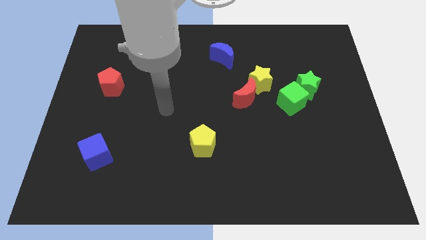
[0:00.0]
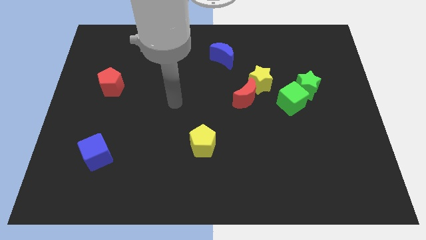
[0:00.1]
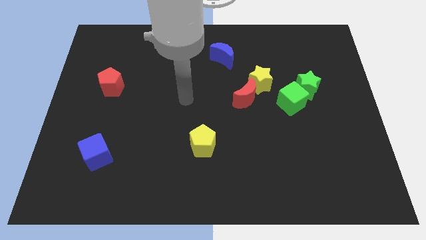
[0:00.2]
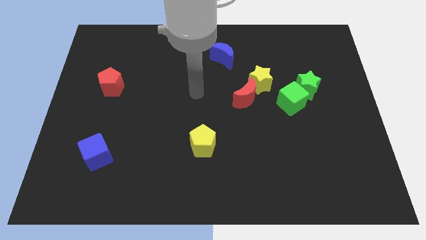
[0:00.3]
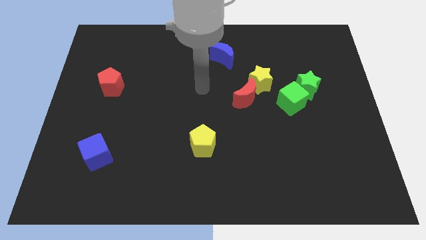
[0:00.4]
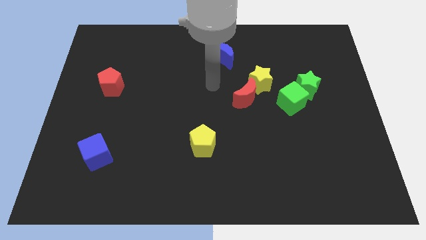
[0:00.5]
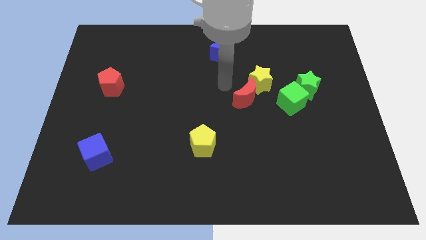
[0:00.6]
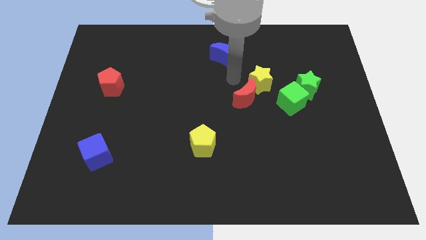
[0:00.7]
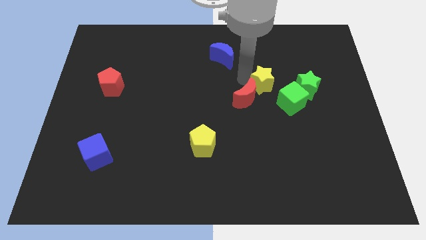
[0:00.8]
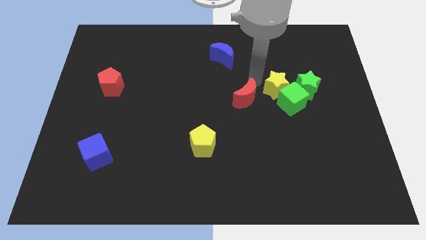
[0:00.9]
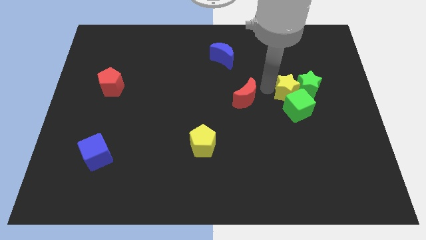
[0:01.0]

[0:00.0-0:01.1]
pull the red moon apart from the yellow star

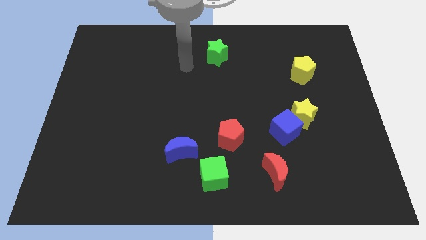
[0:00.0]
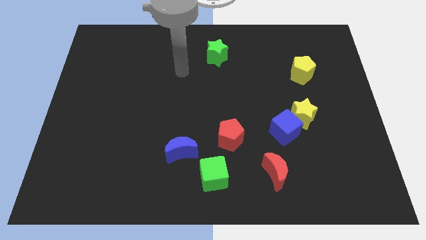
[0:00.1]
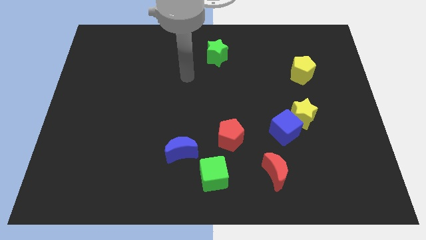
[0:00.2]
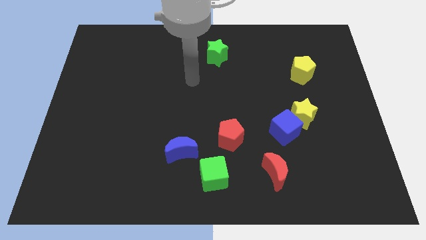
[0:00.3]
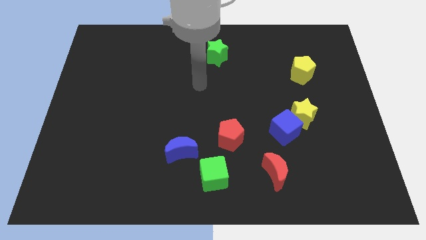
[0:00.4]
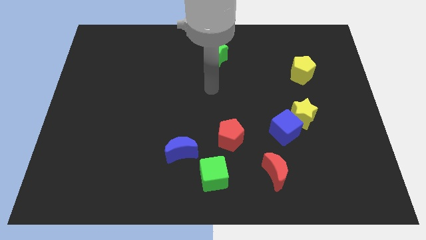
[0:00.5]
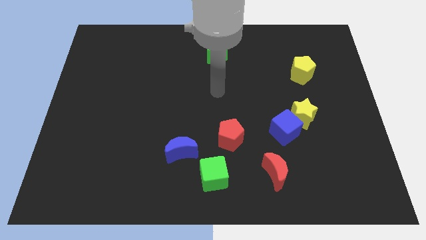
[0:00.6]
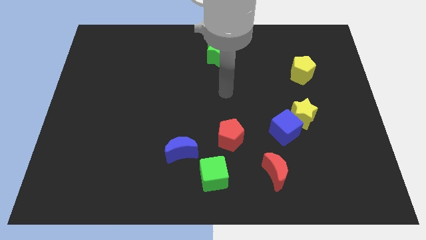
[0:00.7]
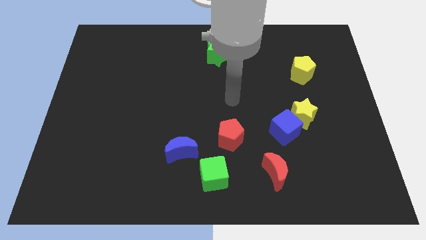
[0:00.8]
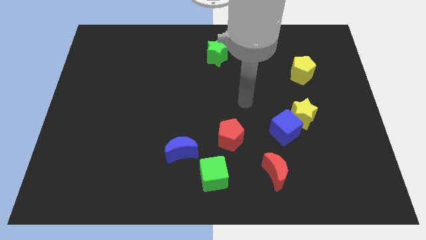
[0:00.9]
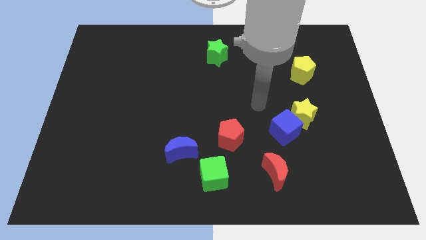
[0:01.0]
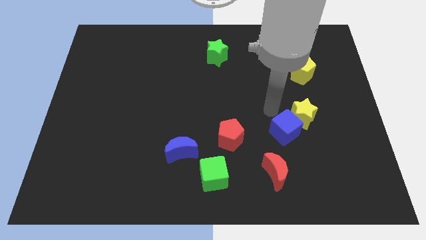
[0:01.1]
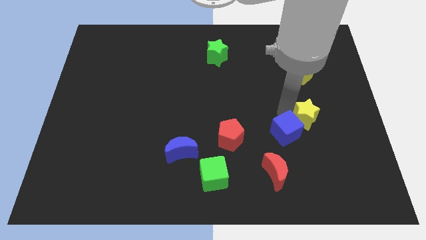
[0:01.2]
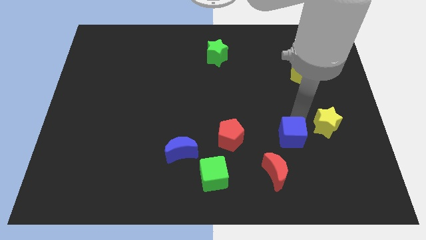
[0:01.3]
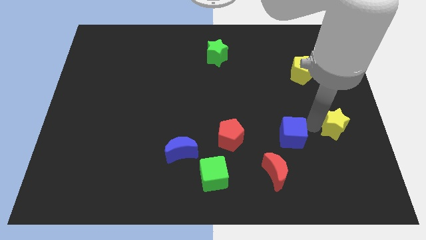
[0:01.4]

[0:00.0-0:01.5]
pull the blue cube apart from the yellow star

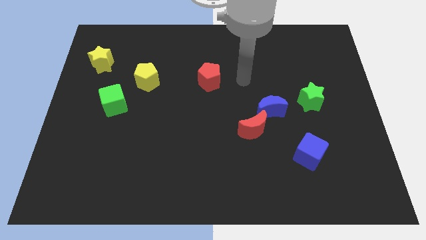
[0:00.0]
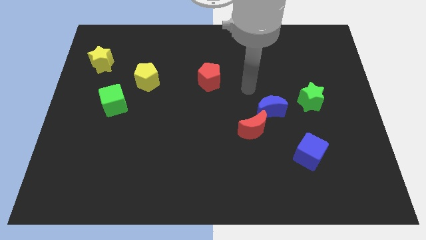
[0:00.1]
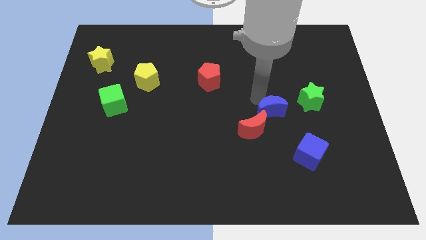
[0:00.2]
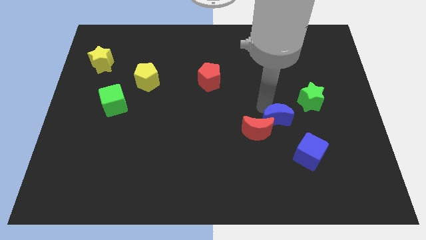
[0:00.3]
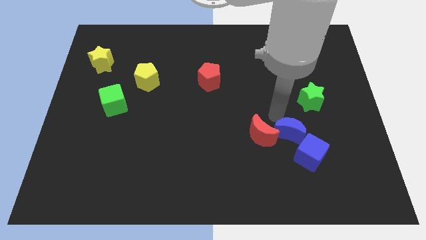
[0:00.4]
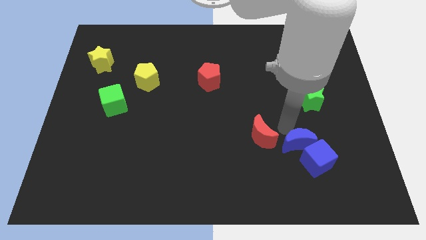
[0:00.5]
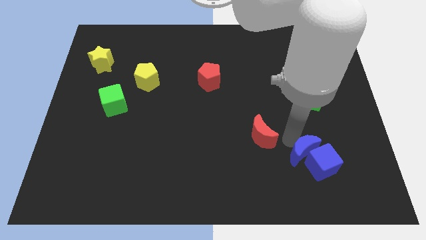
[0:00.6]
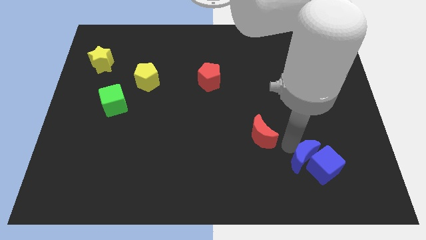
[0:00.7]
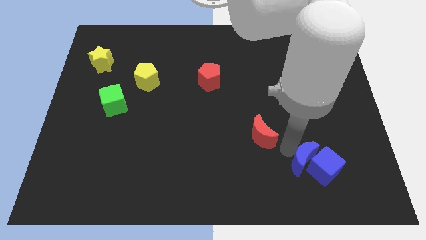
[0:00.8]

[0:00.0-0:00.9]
separate the red moon from the blue moon

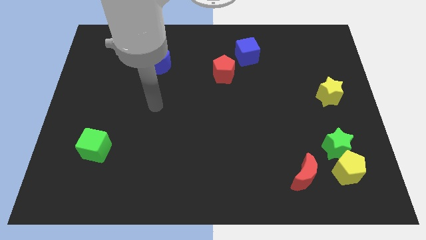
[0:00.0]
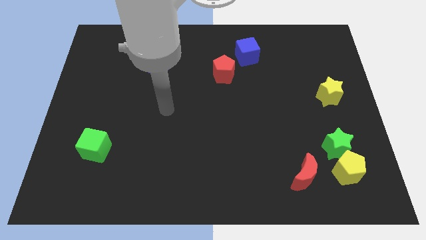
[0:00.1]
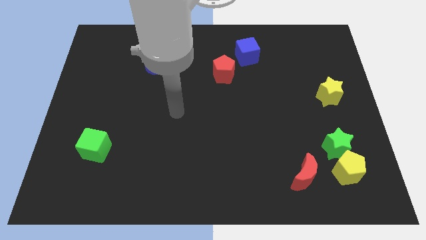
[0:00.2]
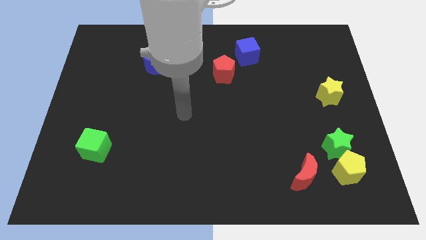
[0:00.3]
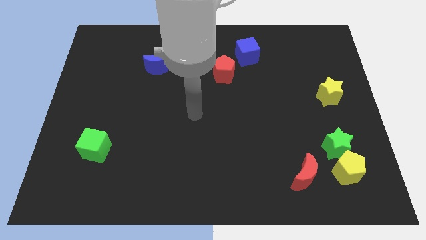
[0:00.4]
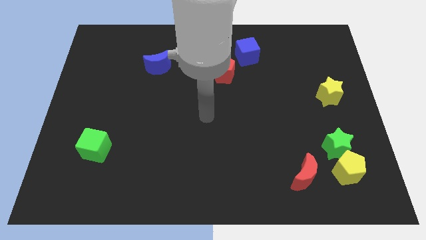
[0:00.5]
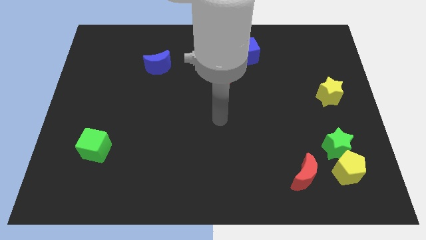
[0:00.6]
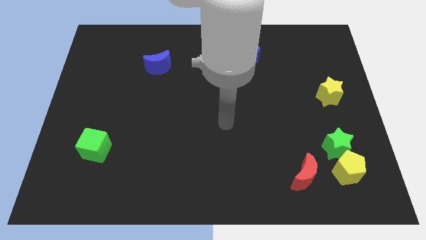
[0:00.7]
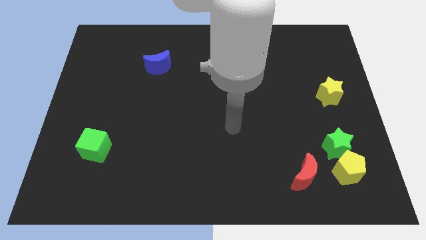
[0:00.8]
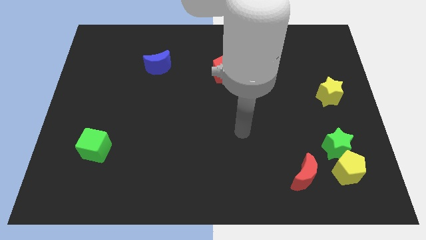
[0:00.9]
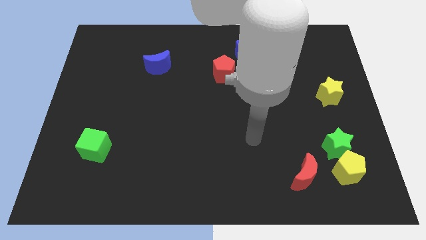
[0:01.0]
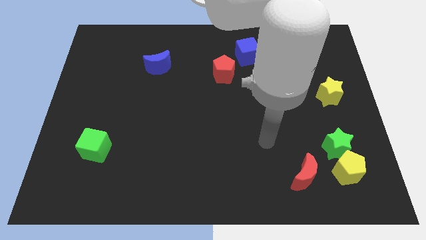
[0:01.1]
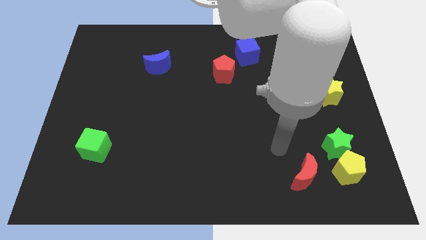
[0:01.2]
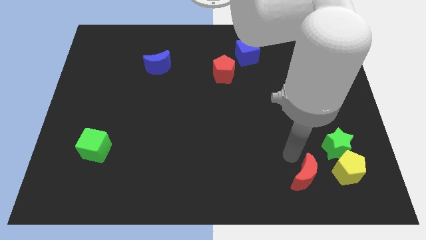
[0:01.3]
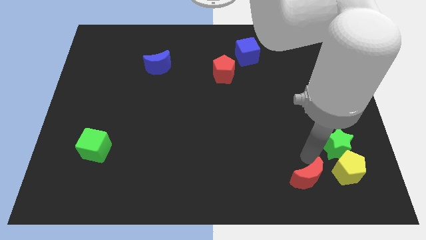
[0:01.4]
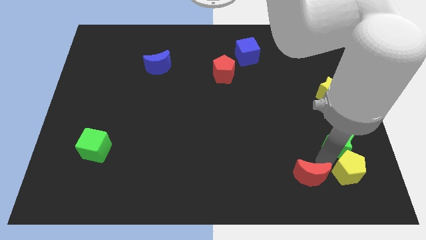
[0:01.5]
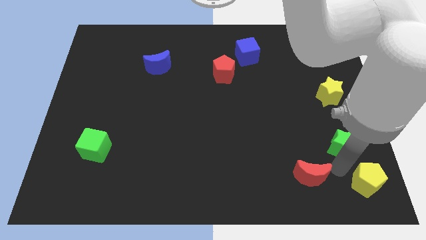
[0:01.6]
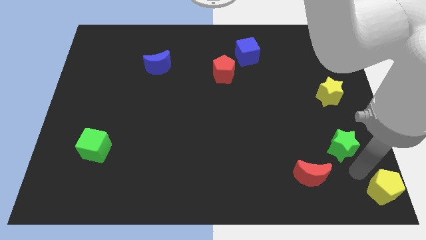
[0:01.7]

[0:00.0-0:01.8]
separate the green star from the yellow pentagon

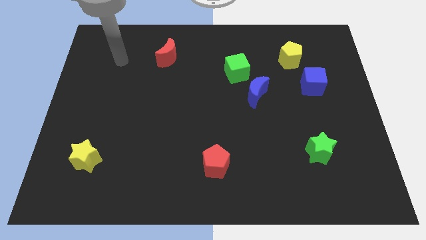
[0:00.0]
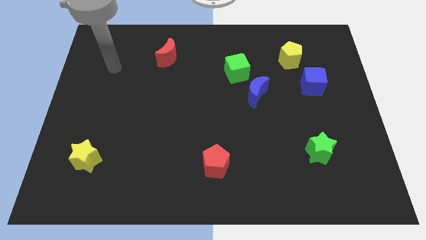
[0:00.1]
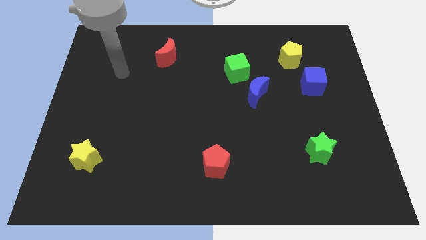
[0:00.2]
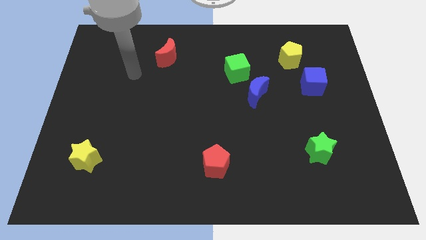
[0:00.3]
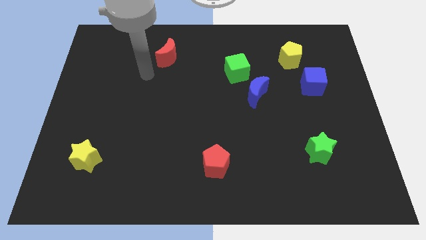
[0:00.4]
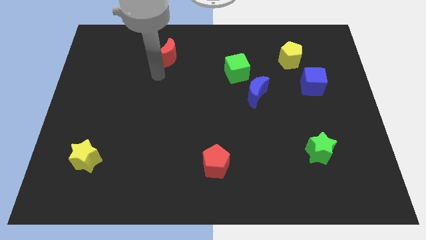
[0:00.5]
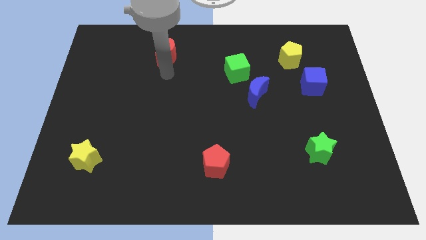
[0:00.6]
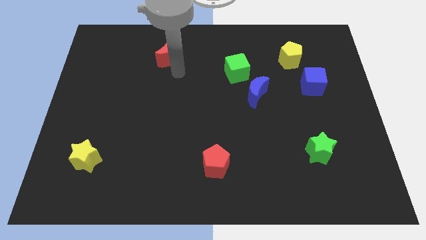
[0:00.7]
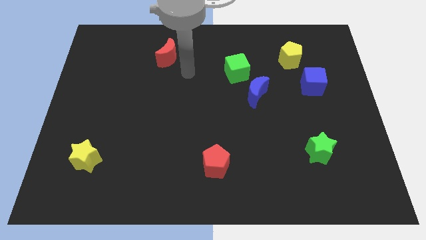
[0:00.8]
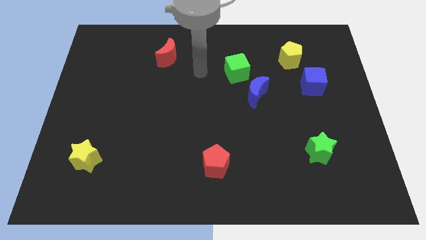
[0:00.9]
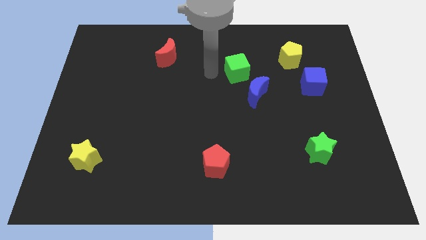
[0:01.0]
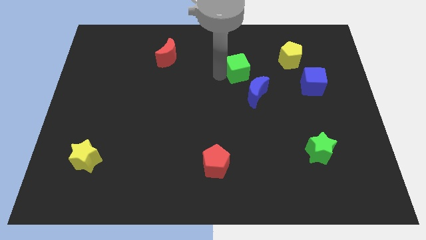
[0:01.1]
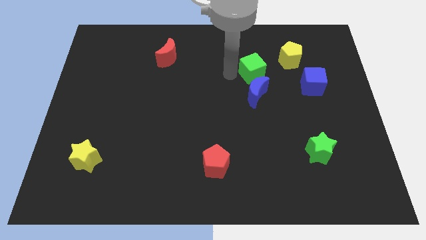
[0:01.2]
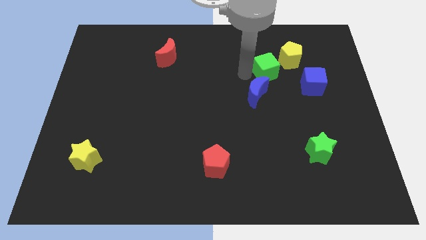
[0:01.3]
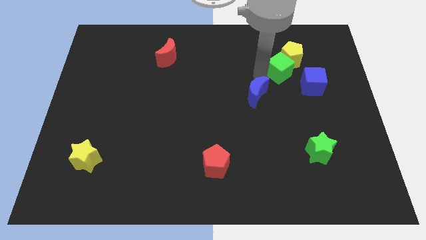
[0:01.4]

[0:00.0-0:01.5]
separate the blue moon from the green cube

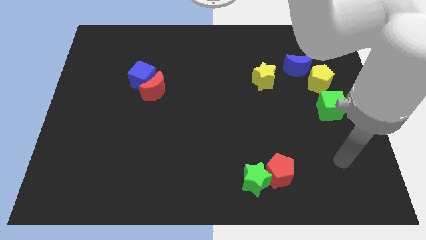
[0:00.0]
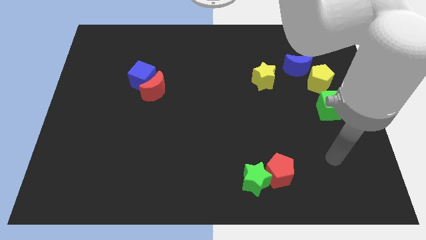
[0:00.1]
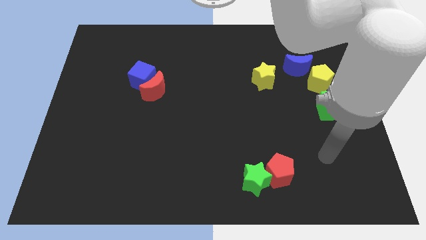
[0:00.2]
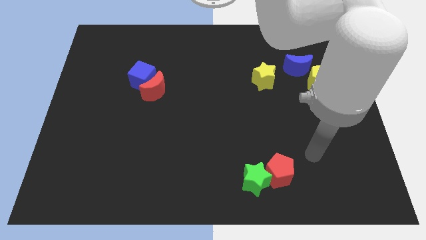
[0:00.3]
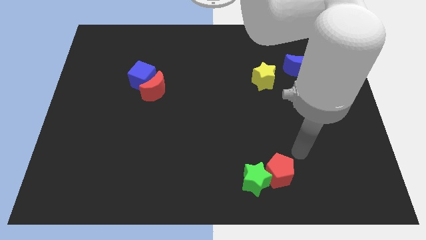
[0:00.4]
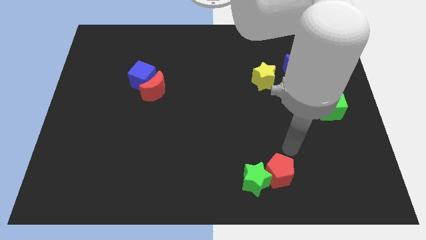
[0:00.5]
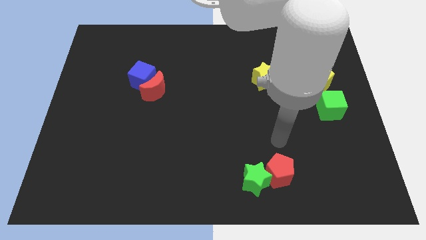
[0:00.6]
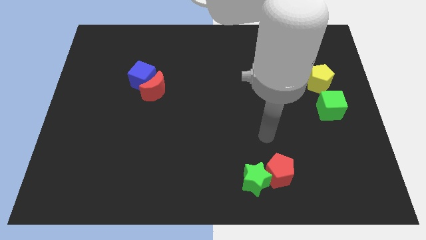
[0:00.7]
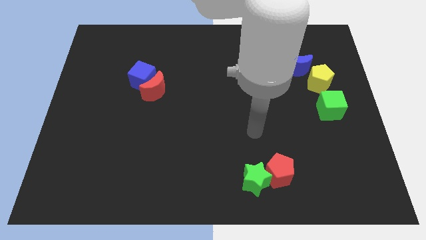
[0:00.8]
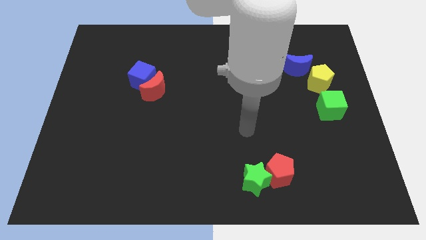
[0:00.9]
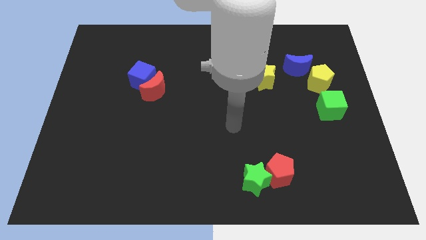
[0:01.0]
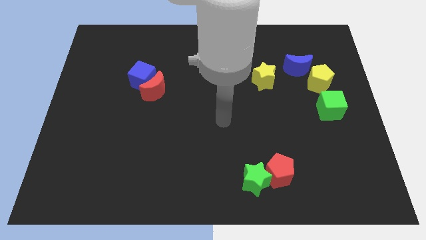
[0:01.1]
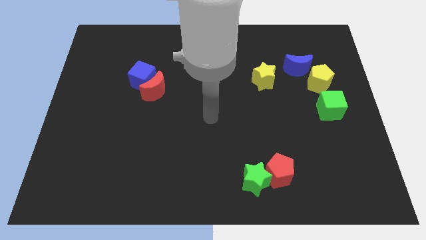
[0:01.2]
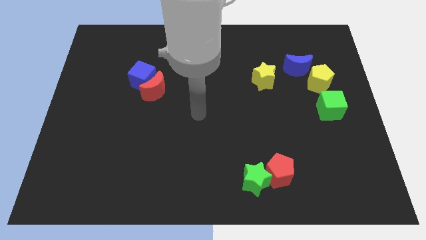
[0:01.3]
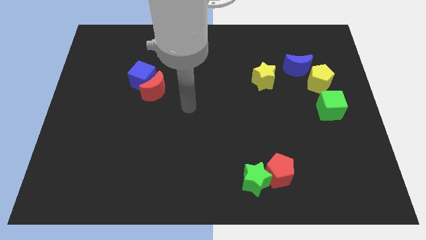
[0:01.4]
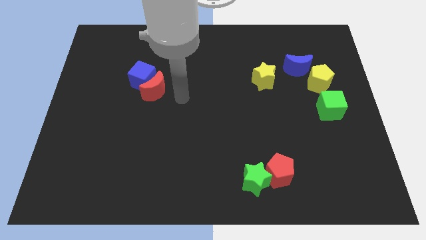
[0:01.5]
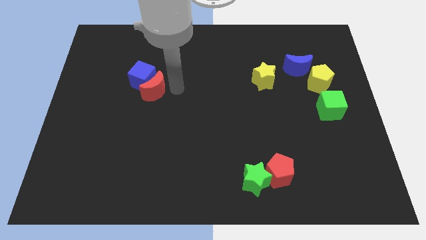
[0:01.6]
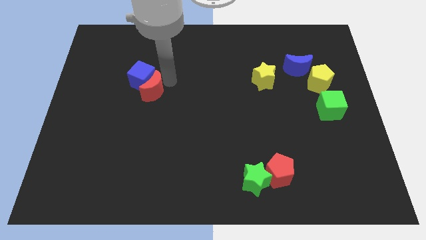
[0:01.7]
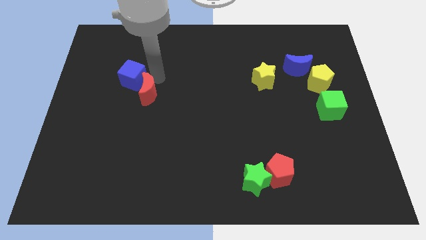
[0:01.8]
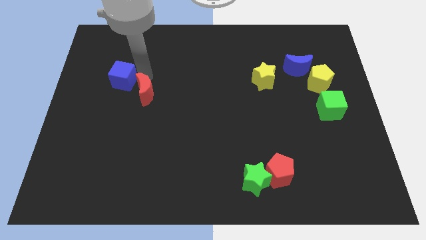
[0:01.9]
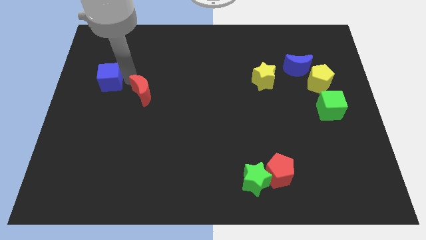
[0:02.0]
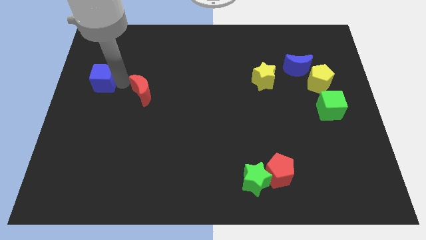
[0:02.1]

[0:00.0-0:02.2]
move the red moon away from the blue cube

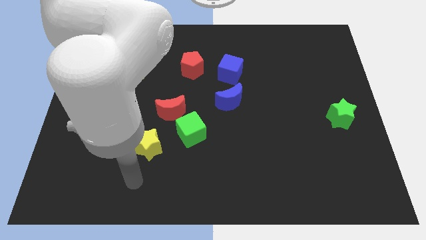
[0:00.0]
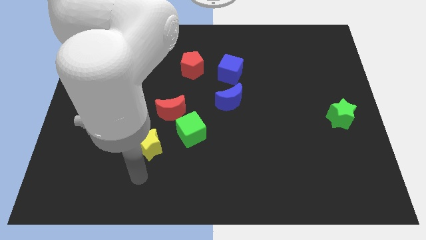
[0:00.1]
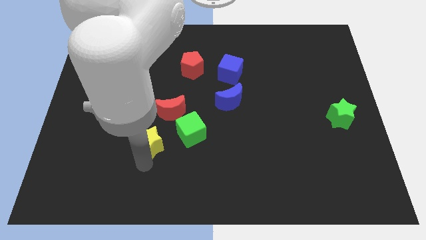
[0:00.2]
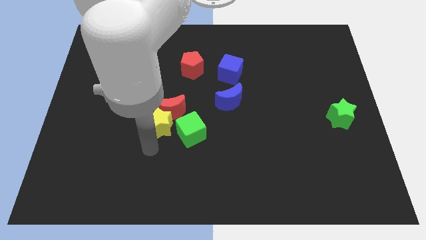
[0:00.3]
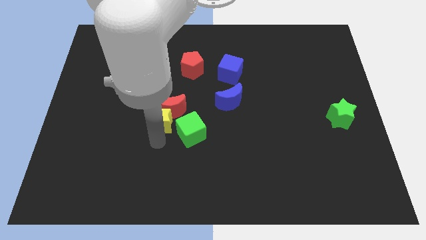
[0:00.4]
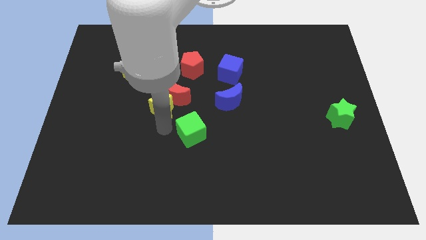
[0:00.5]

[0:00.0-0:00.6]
separate the green cube from the red moon and yellow star
